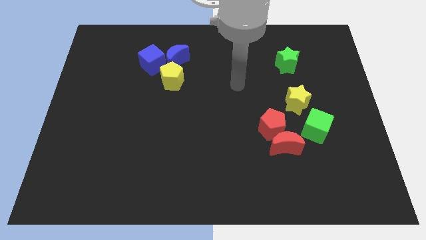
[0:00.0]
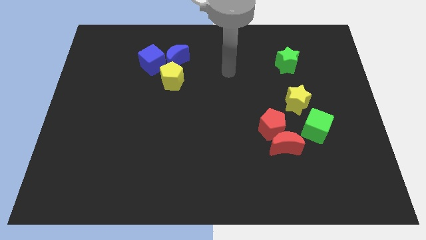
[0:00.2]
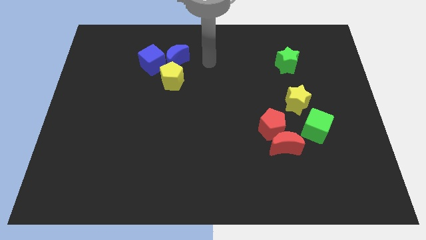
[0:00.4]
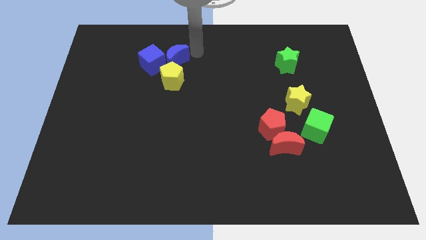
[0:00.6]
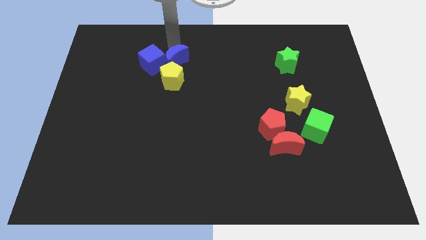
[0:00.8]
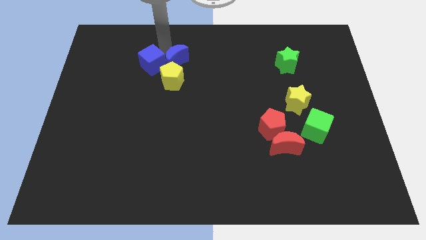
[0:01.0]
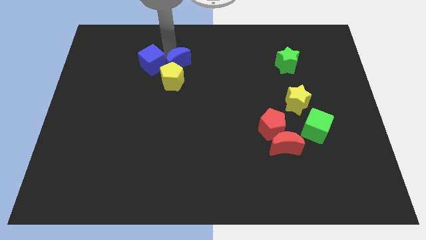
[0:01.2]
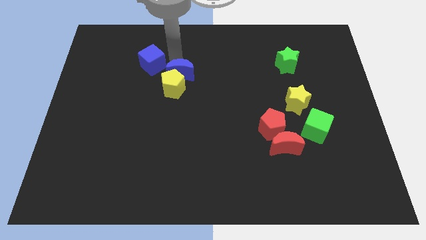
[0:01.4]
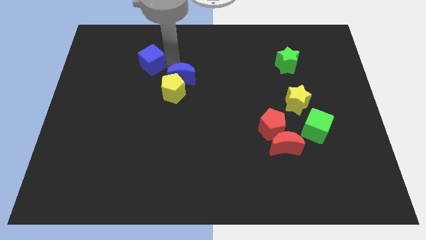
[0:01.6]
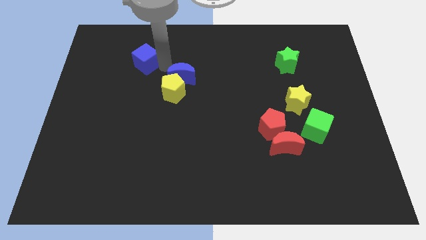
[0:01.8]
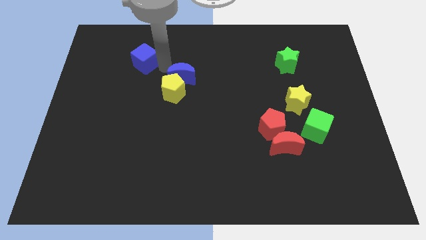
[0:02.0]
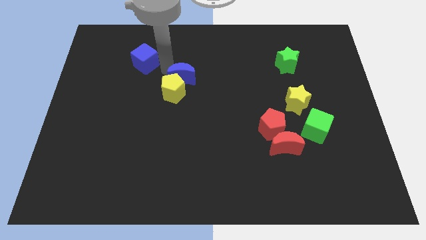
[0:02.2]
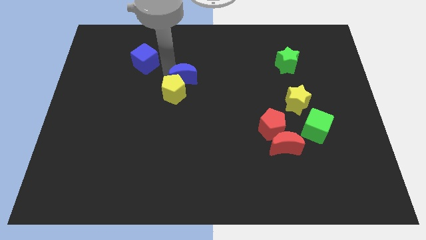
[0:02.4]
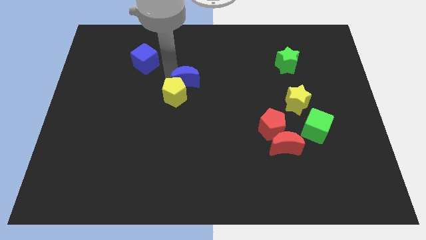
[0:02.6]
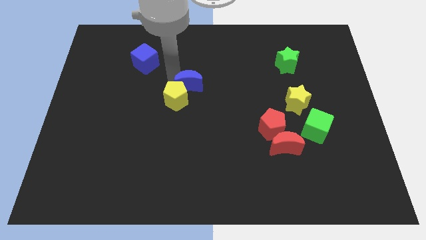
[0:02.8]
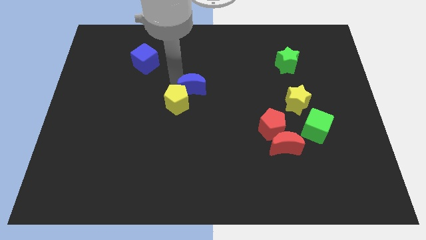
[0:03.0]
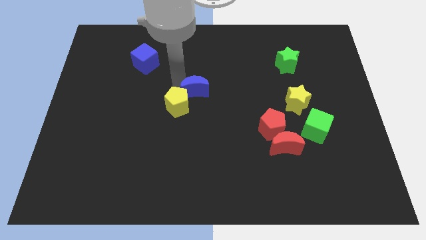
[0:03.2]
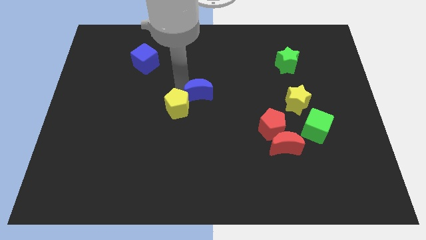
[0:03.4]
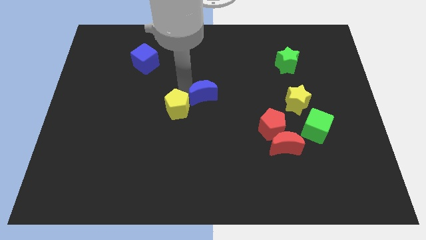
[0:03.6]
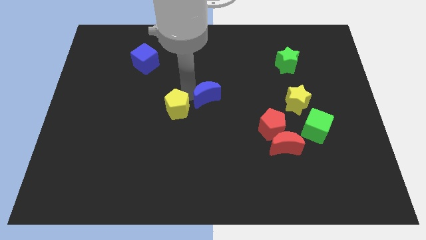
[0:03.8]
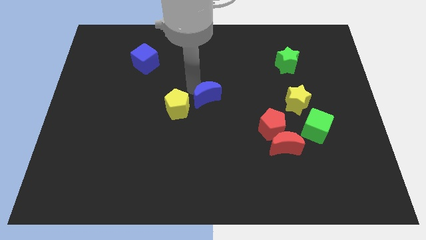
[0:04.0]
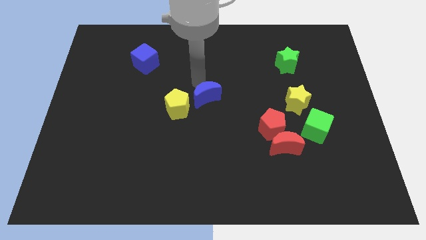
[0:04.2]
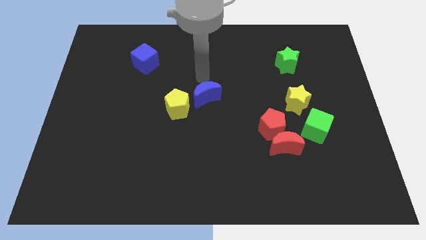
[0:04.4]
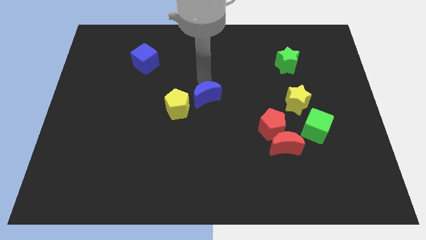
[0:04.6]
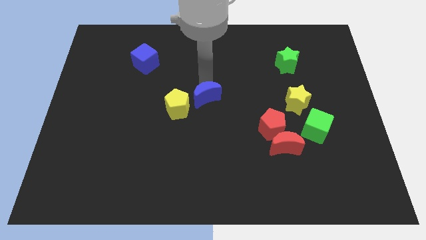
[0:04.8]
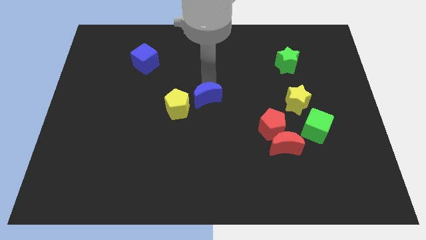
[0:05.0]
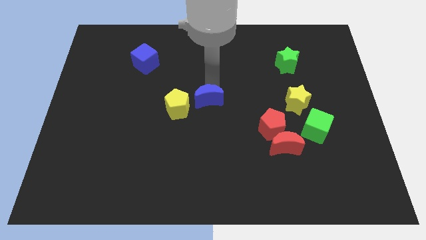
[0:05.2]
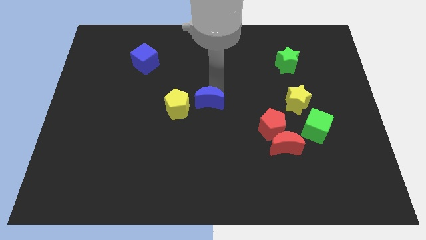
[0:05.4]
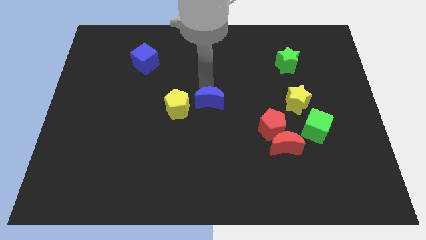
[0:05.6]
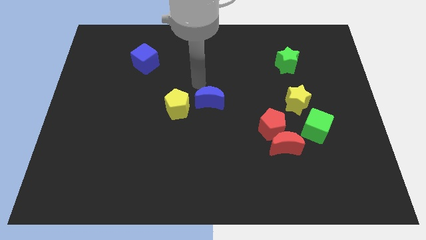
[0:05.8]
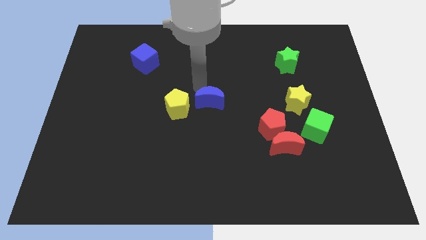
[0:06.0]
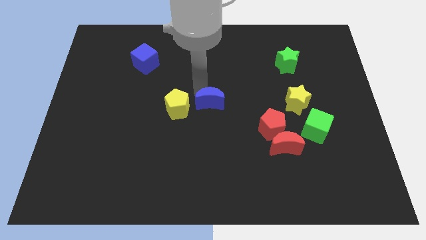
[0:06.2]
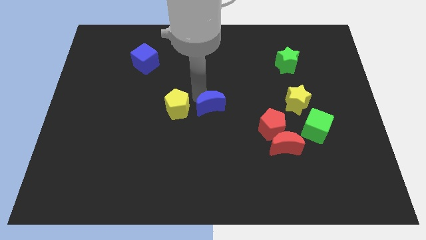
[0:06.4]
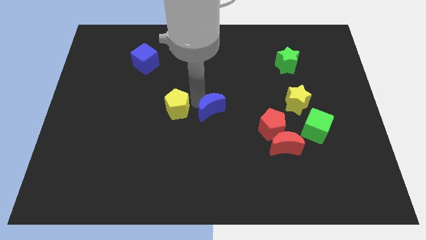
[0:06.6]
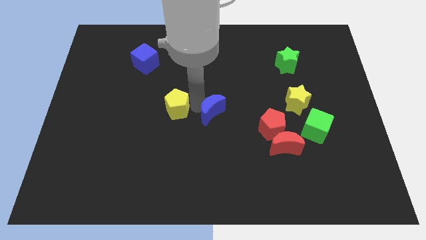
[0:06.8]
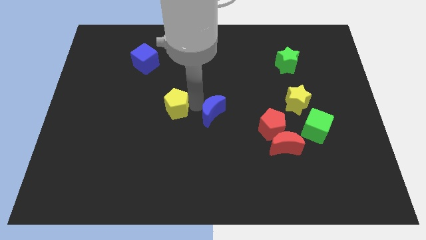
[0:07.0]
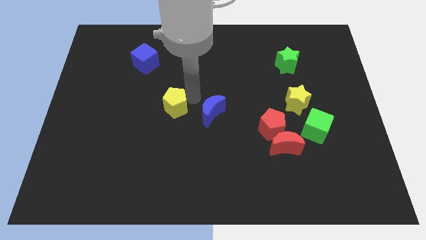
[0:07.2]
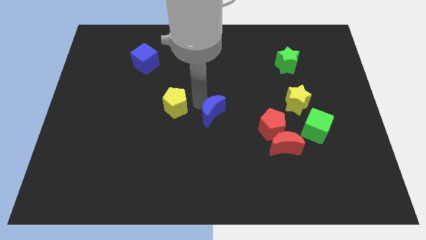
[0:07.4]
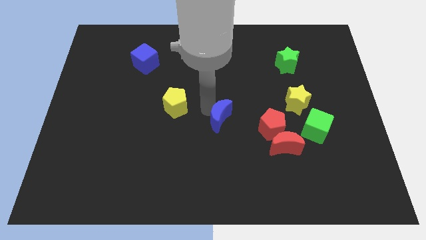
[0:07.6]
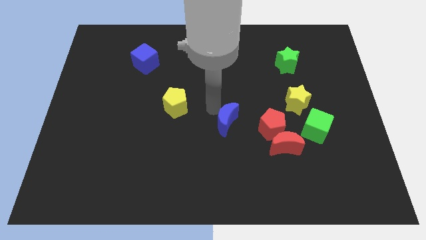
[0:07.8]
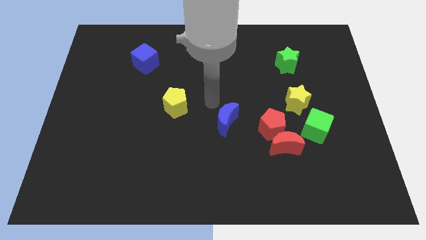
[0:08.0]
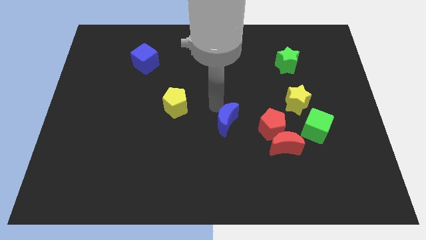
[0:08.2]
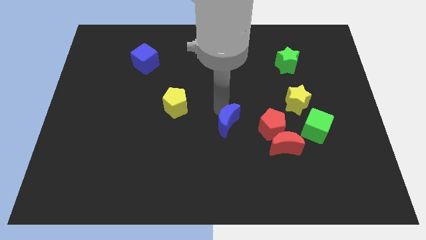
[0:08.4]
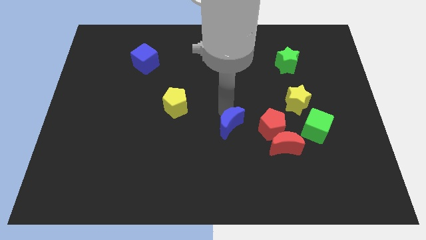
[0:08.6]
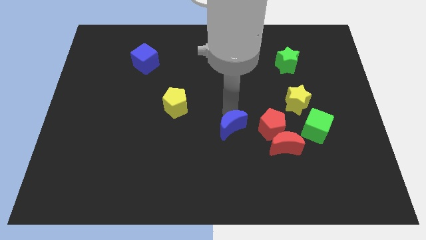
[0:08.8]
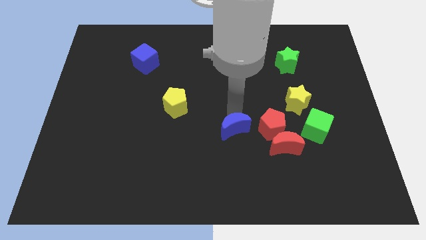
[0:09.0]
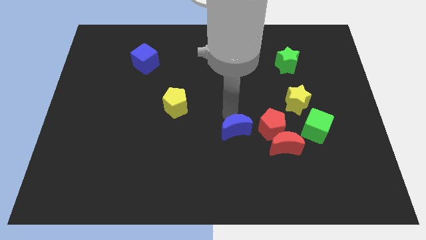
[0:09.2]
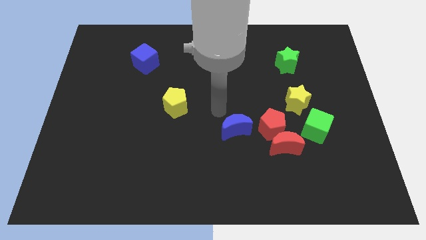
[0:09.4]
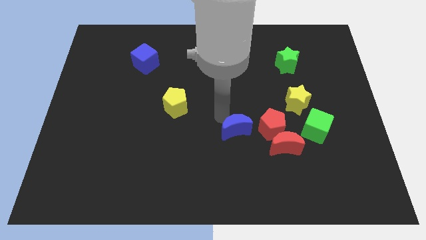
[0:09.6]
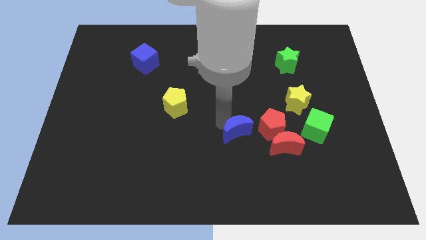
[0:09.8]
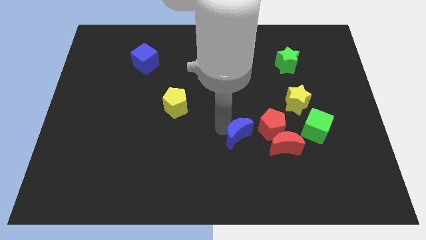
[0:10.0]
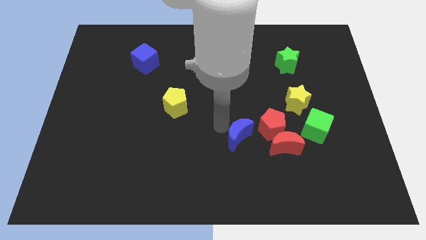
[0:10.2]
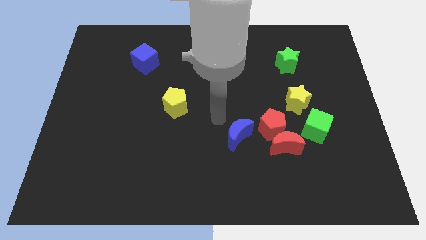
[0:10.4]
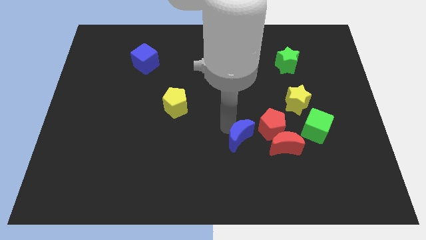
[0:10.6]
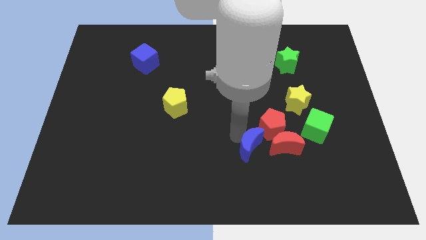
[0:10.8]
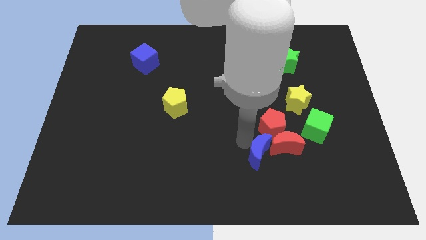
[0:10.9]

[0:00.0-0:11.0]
put the blue moon to the bottom of the red pentagon

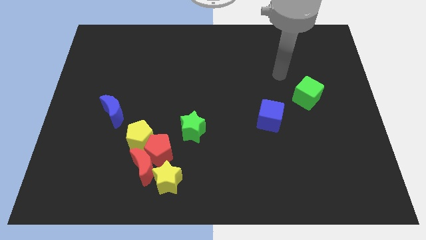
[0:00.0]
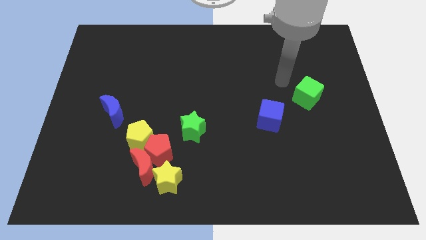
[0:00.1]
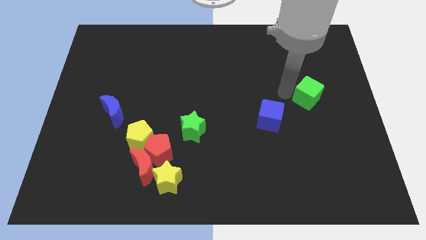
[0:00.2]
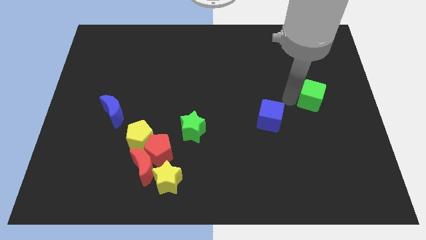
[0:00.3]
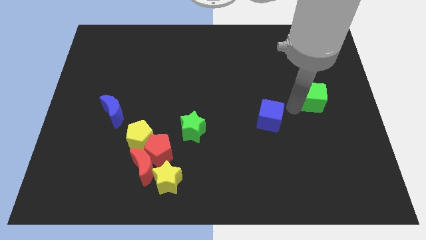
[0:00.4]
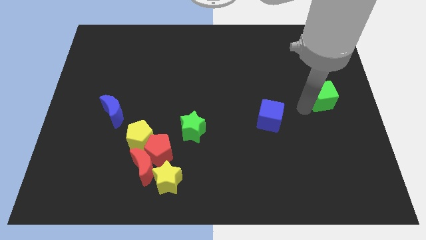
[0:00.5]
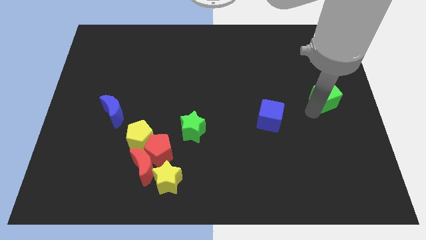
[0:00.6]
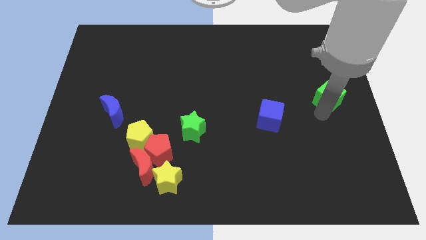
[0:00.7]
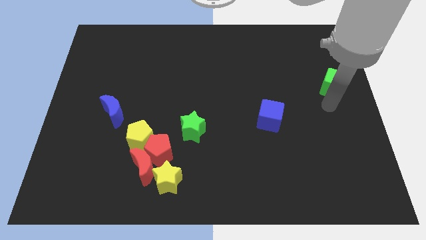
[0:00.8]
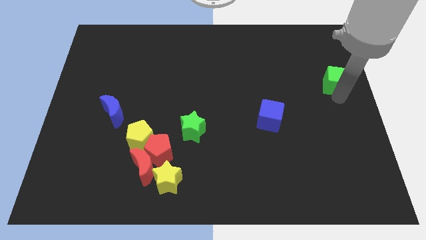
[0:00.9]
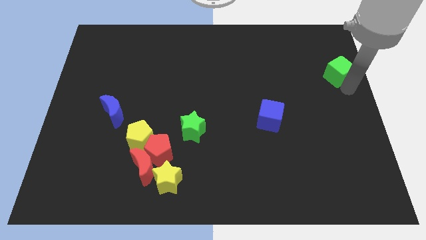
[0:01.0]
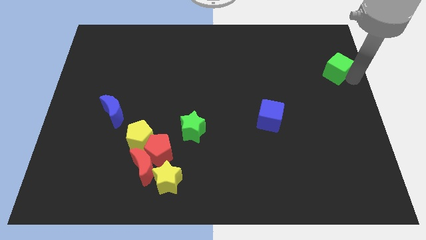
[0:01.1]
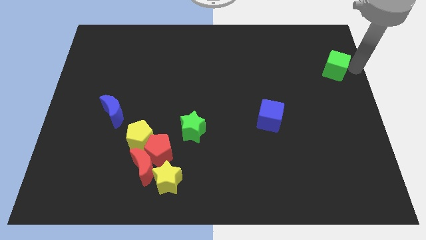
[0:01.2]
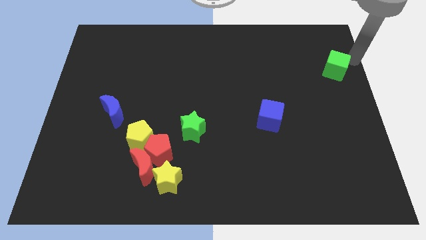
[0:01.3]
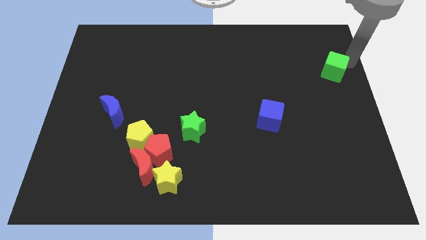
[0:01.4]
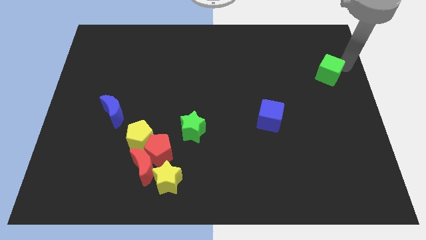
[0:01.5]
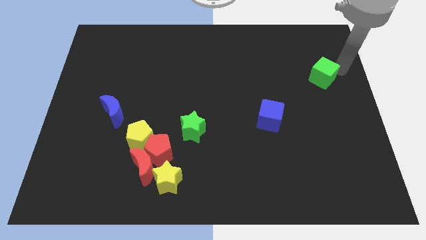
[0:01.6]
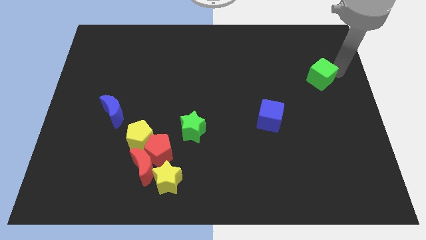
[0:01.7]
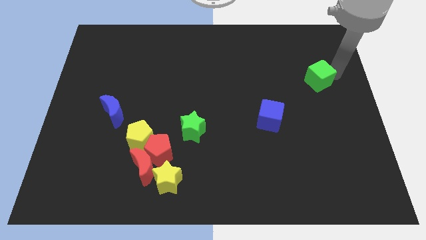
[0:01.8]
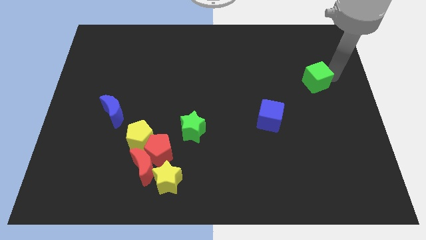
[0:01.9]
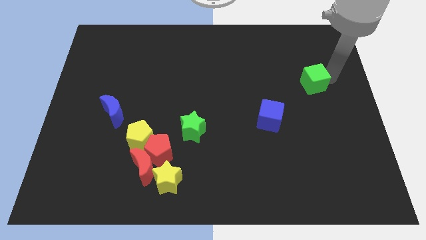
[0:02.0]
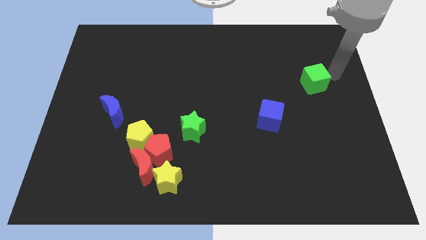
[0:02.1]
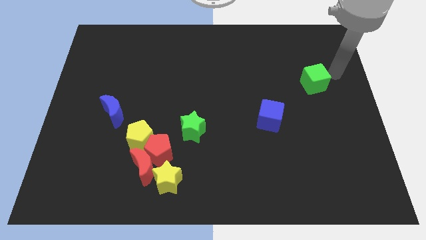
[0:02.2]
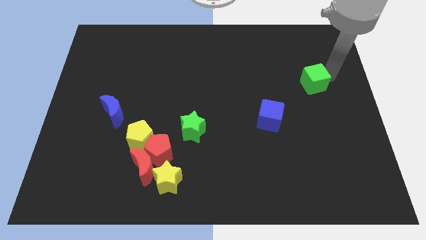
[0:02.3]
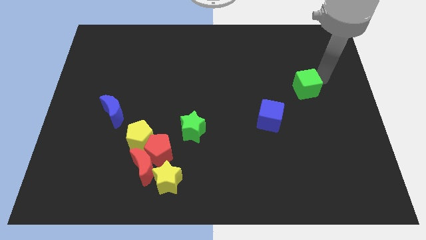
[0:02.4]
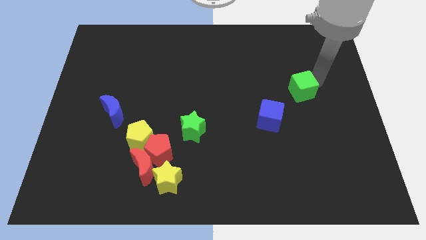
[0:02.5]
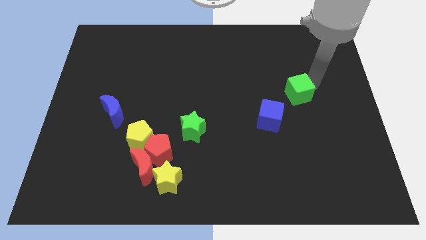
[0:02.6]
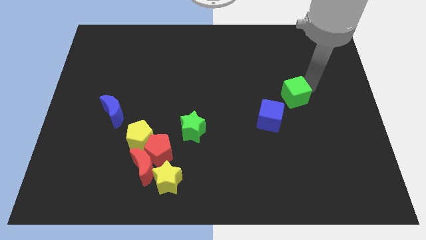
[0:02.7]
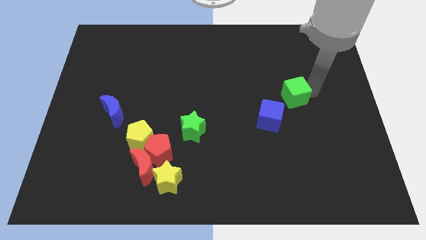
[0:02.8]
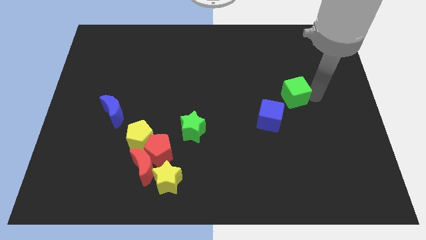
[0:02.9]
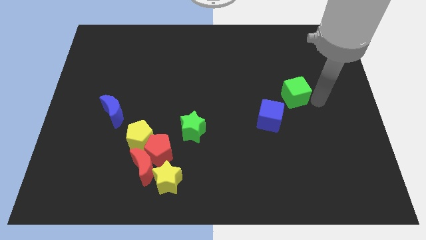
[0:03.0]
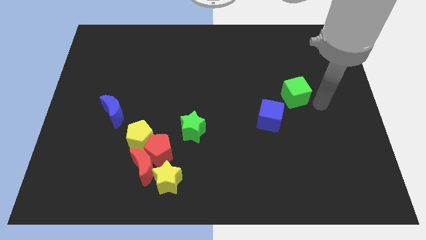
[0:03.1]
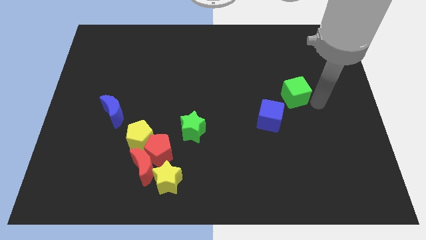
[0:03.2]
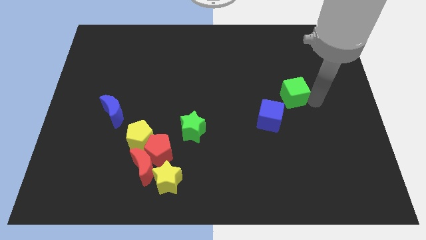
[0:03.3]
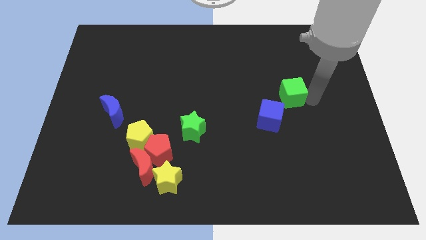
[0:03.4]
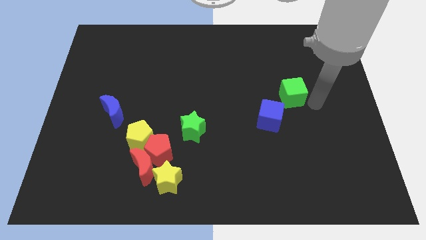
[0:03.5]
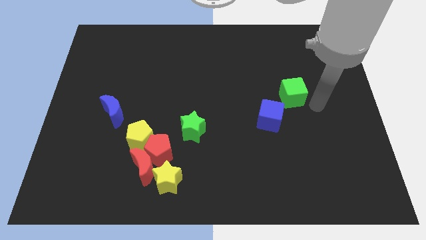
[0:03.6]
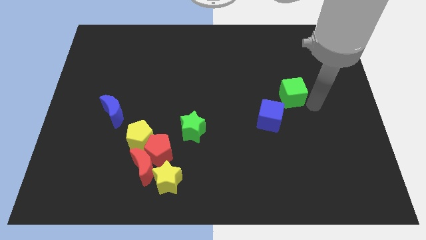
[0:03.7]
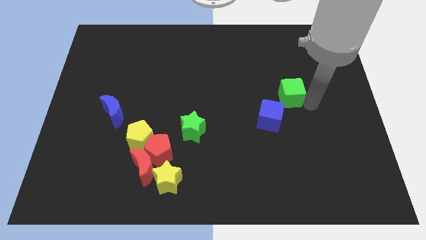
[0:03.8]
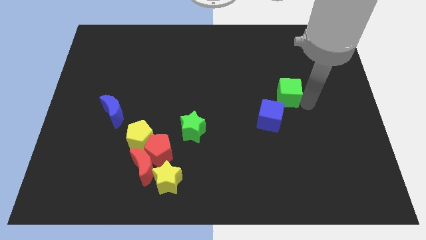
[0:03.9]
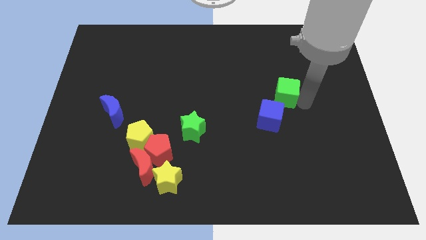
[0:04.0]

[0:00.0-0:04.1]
put the green cube to the top side of the blue cube
